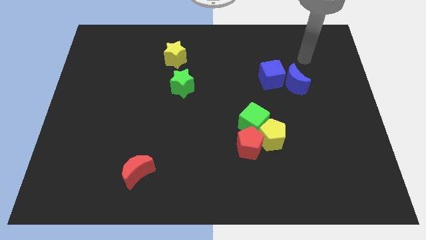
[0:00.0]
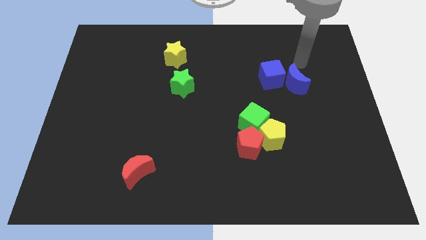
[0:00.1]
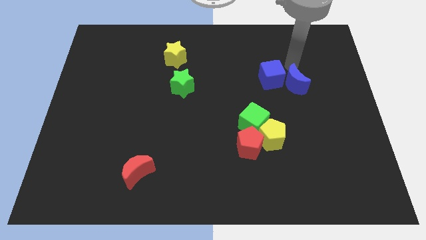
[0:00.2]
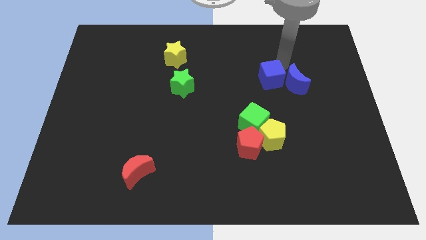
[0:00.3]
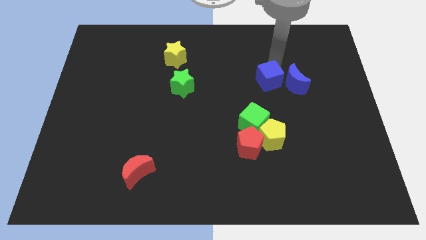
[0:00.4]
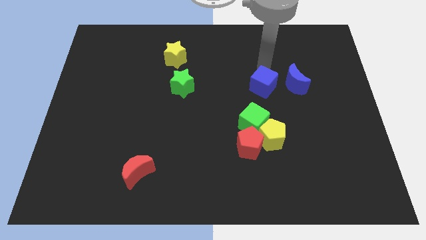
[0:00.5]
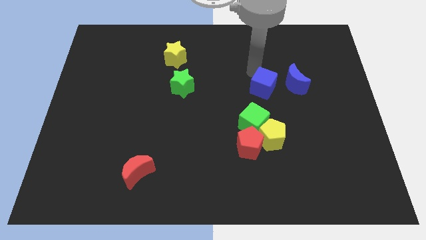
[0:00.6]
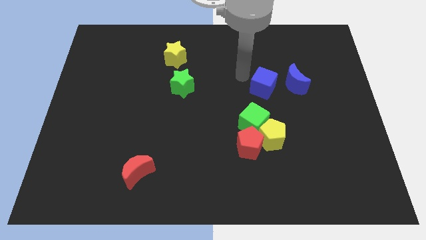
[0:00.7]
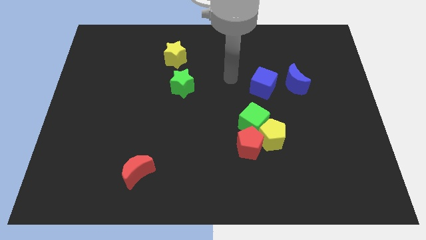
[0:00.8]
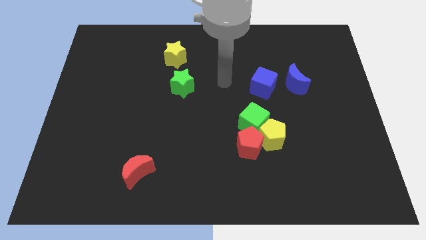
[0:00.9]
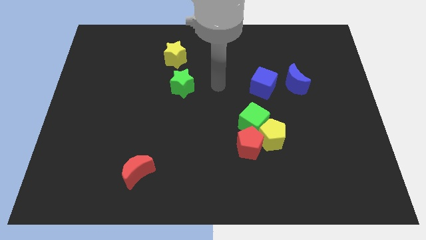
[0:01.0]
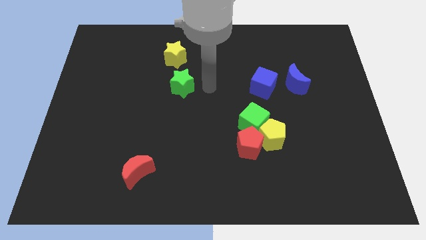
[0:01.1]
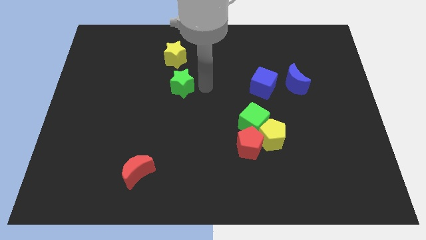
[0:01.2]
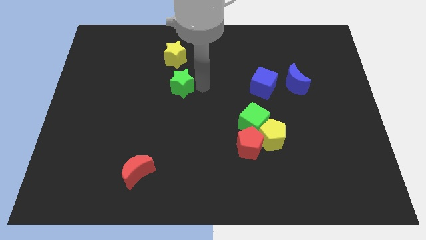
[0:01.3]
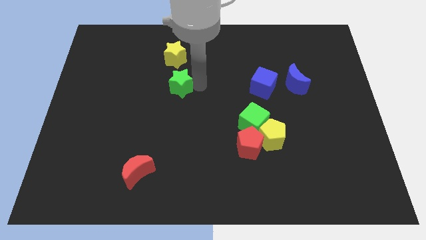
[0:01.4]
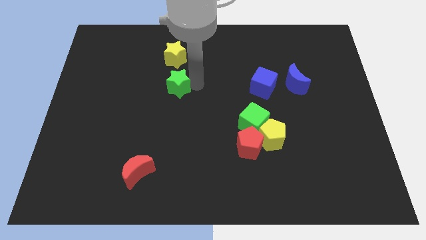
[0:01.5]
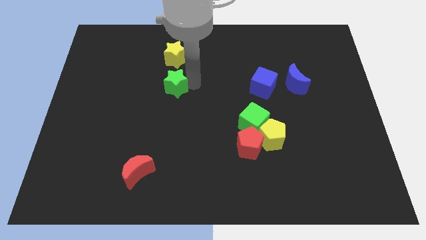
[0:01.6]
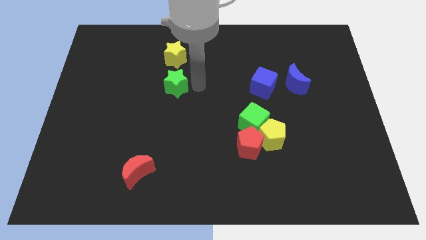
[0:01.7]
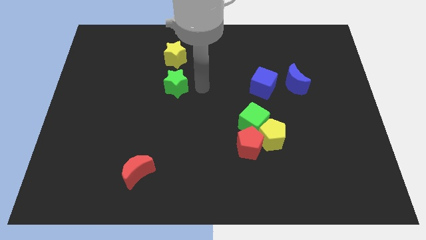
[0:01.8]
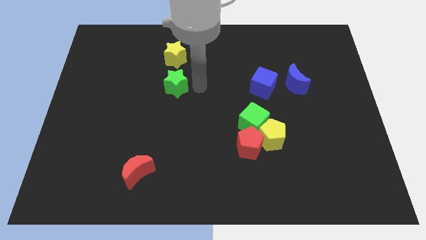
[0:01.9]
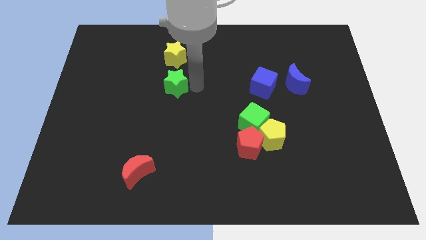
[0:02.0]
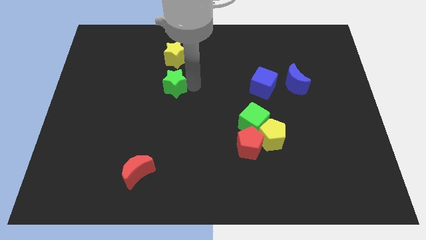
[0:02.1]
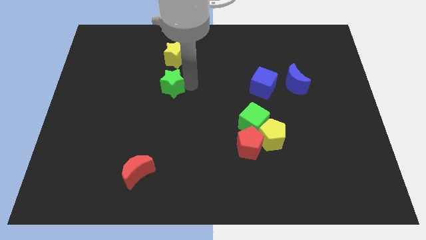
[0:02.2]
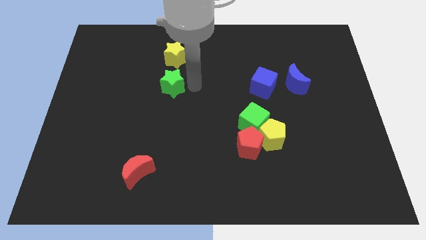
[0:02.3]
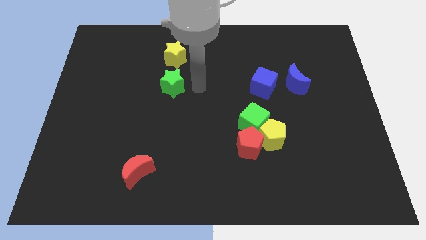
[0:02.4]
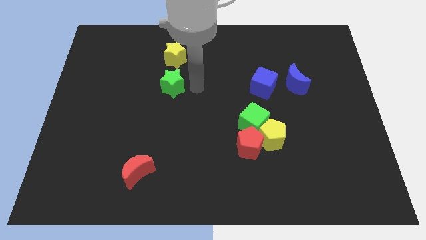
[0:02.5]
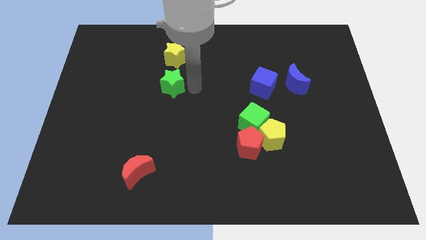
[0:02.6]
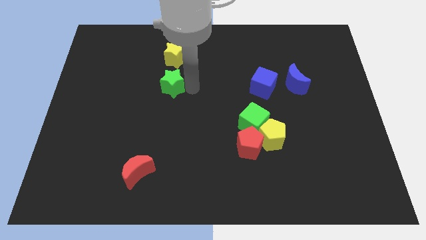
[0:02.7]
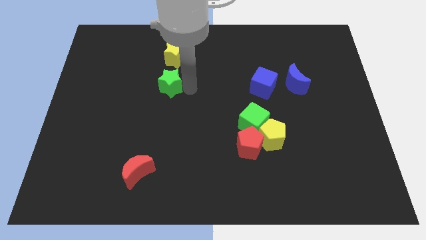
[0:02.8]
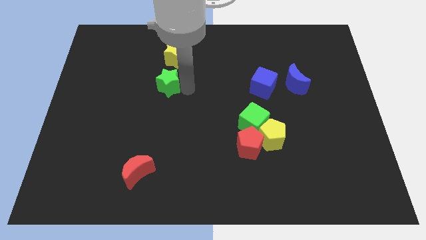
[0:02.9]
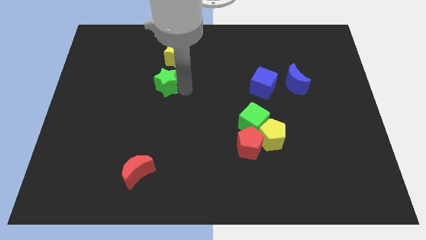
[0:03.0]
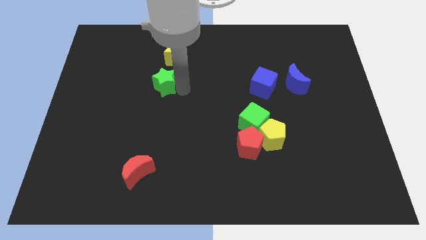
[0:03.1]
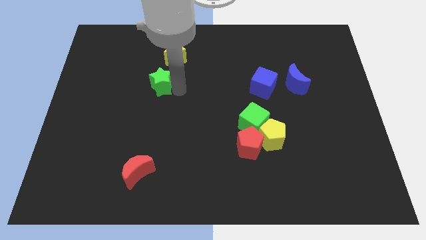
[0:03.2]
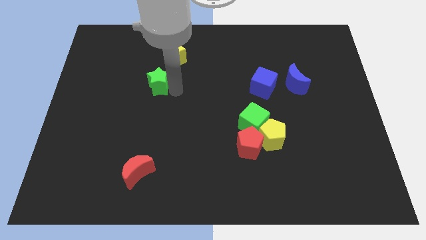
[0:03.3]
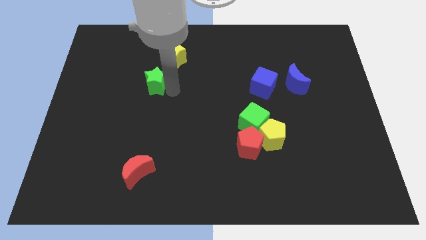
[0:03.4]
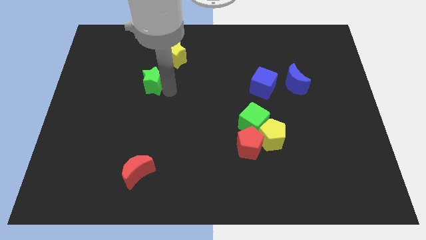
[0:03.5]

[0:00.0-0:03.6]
slide the green star a little to the left

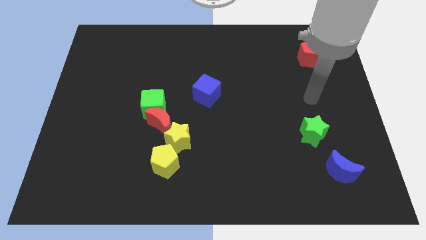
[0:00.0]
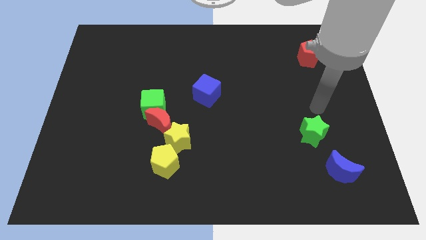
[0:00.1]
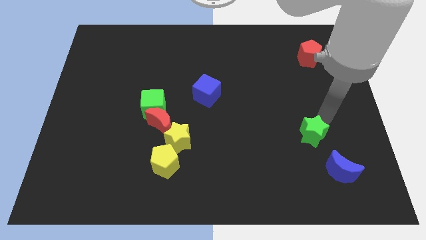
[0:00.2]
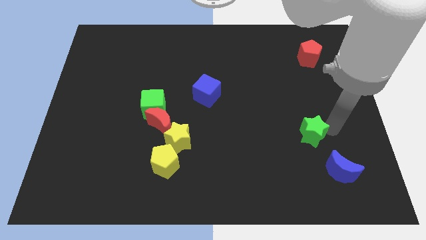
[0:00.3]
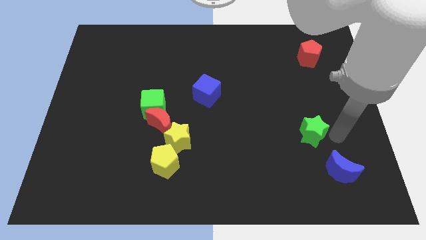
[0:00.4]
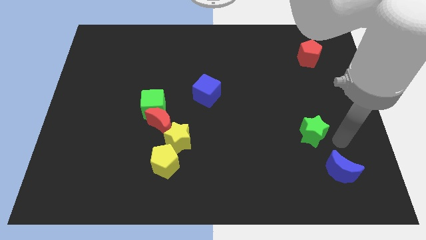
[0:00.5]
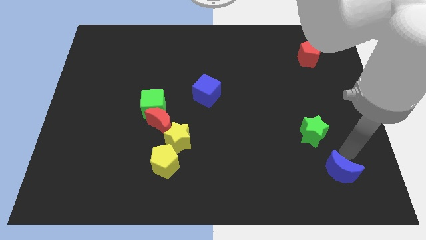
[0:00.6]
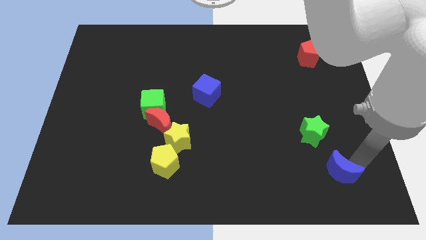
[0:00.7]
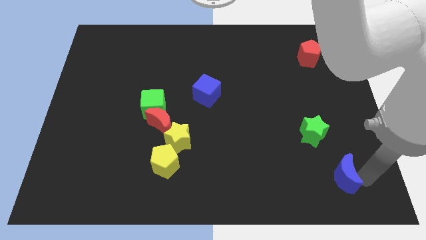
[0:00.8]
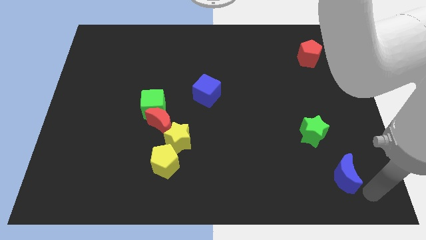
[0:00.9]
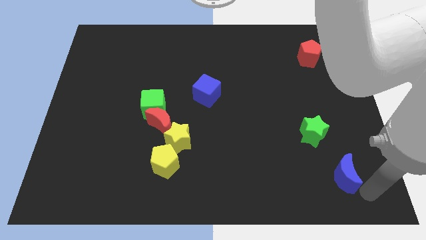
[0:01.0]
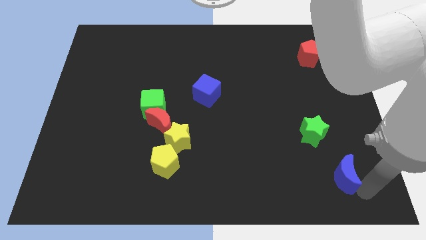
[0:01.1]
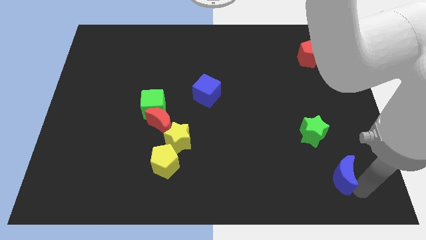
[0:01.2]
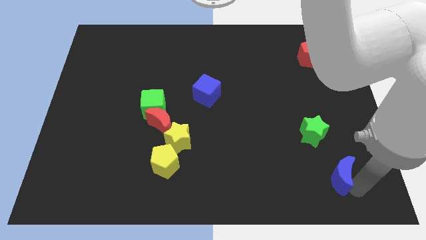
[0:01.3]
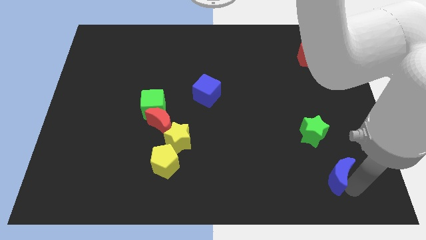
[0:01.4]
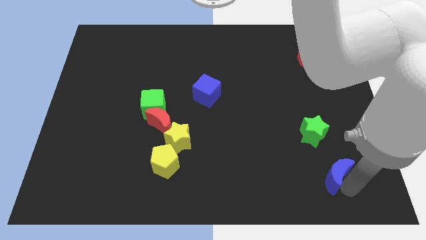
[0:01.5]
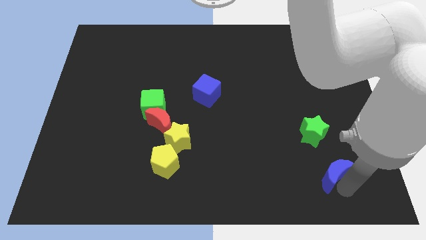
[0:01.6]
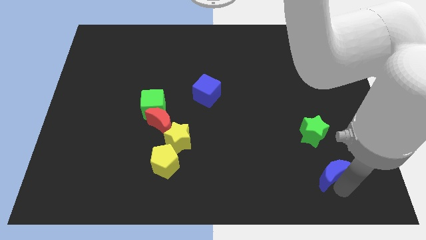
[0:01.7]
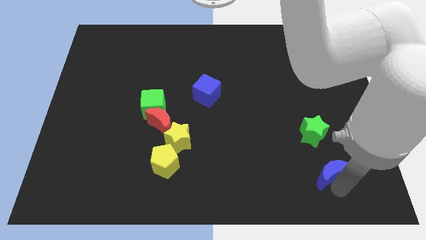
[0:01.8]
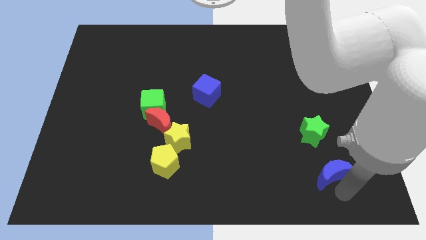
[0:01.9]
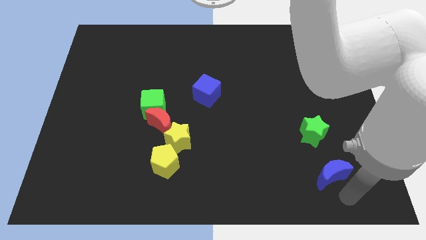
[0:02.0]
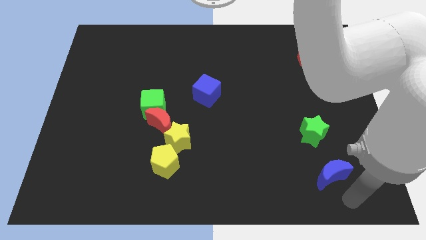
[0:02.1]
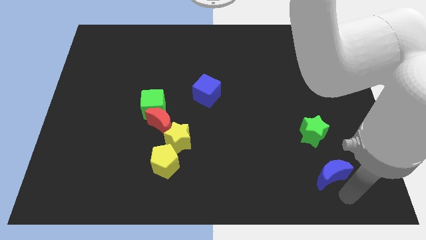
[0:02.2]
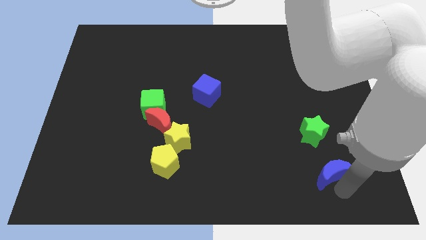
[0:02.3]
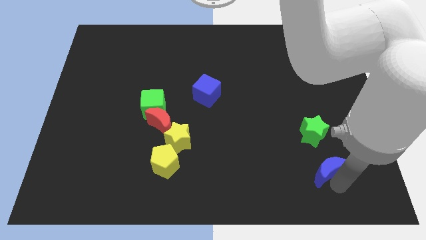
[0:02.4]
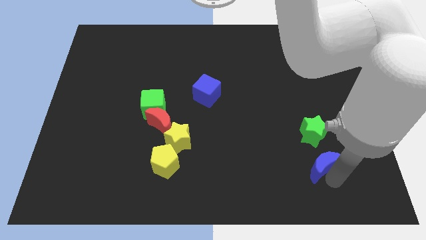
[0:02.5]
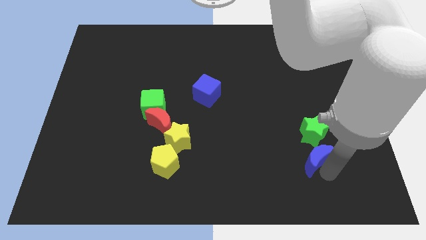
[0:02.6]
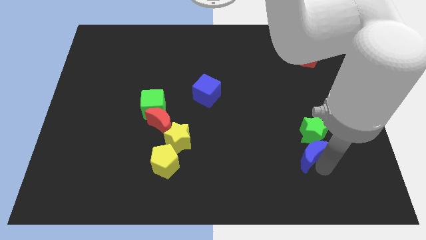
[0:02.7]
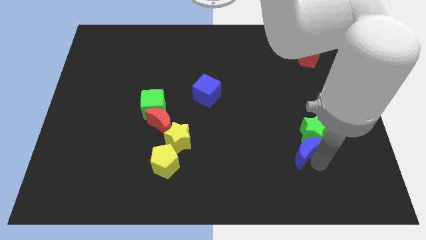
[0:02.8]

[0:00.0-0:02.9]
move the blue moon upwards and then left a little bit

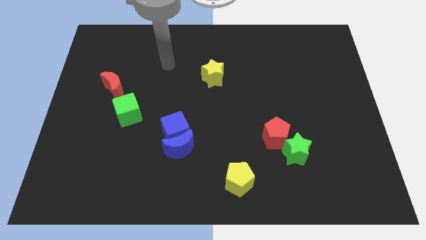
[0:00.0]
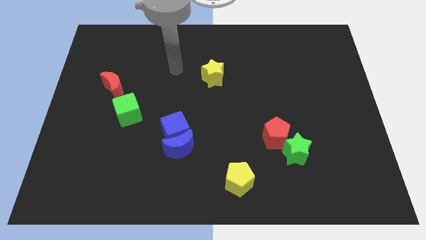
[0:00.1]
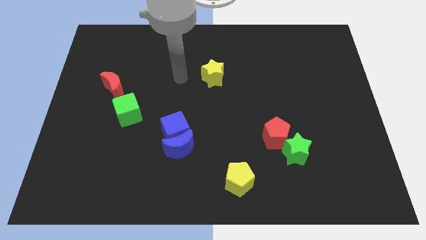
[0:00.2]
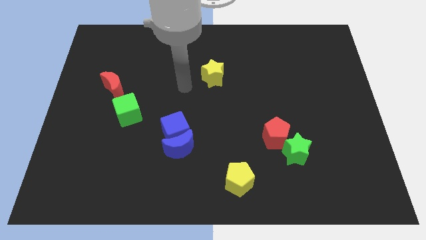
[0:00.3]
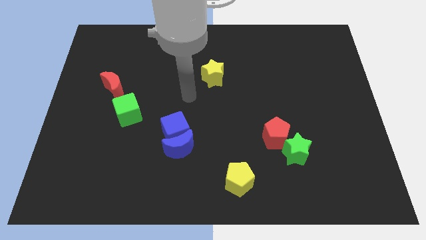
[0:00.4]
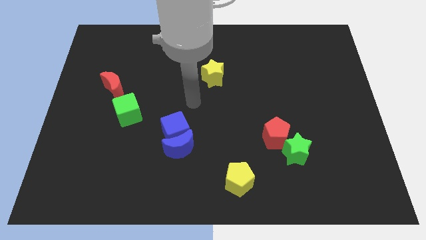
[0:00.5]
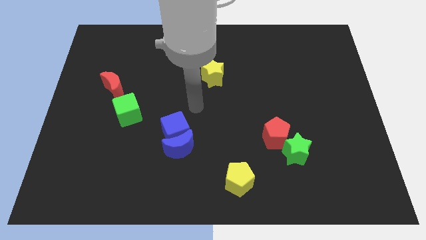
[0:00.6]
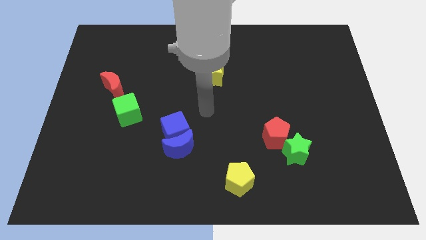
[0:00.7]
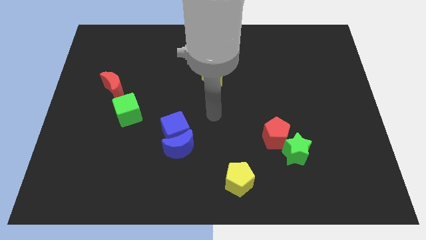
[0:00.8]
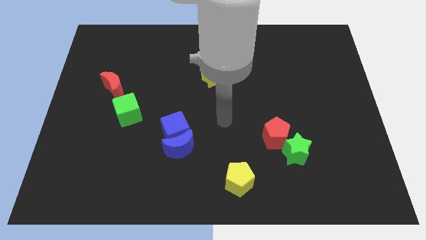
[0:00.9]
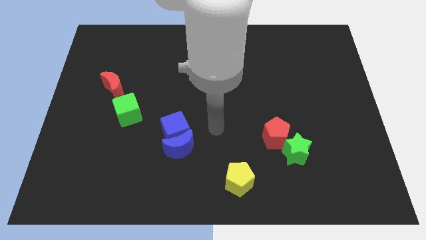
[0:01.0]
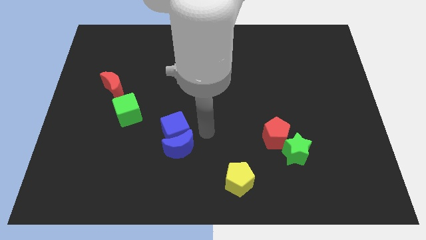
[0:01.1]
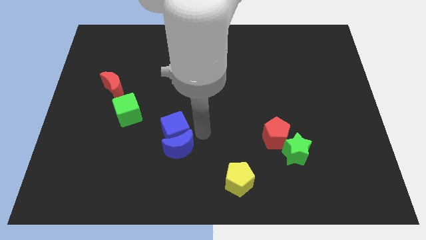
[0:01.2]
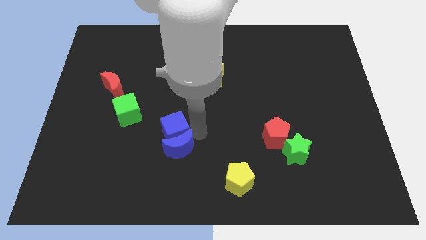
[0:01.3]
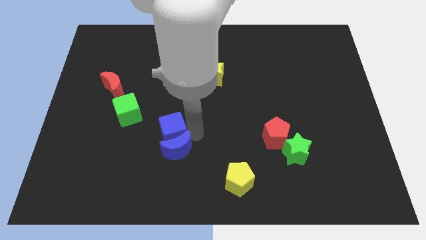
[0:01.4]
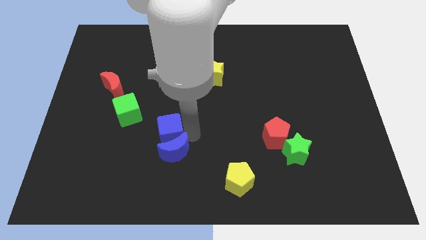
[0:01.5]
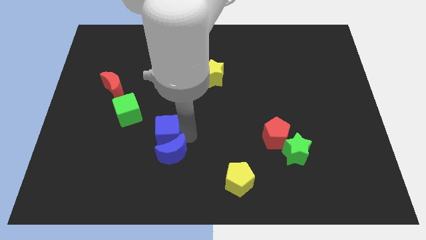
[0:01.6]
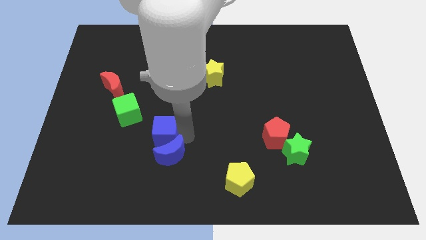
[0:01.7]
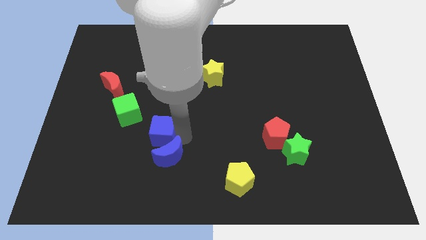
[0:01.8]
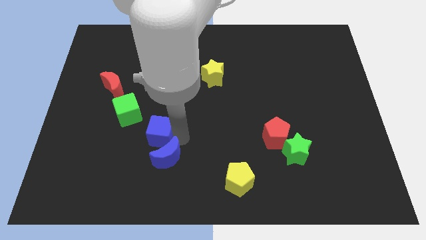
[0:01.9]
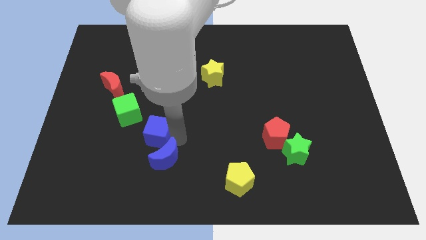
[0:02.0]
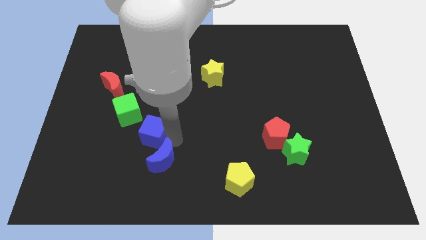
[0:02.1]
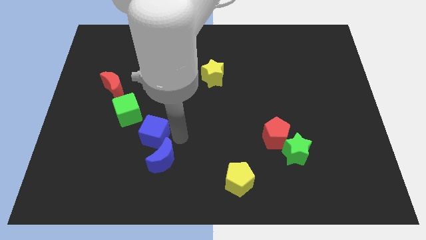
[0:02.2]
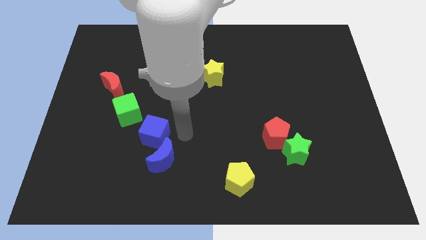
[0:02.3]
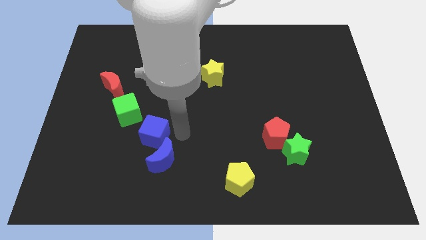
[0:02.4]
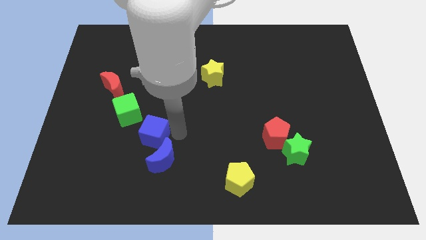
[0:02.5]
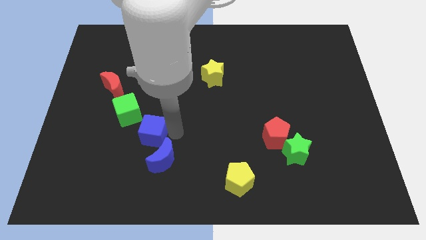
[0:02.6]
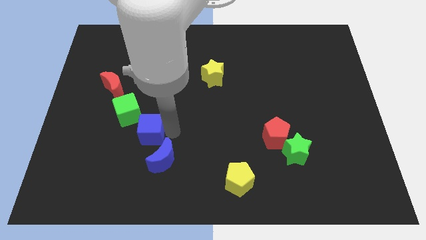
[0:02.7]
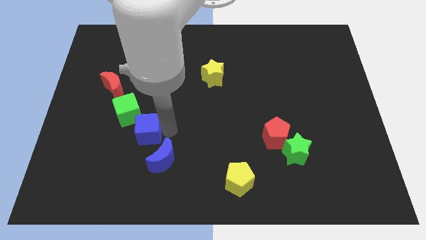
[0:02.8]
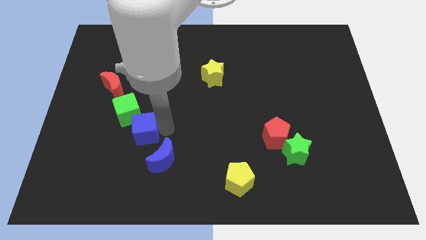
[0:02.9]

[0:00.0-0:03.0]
move the blue cube to the left a little
